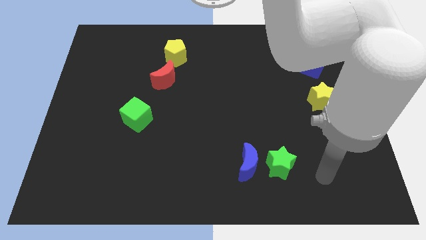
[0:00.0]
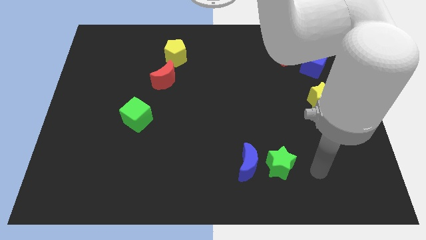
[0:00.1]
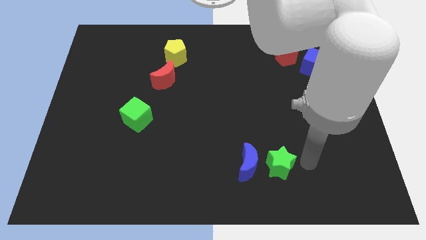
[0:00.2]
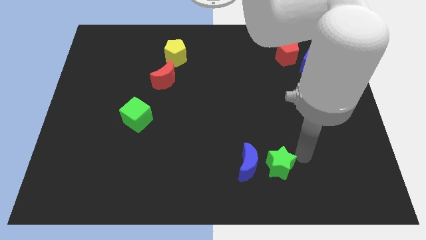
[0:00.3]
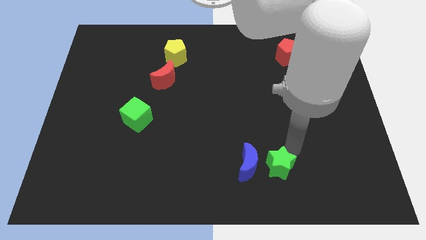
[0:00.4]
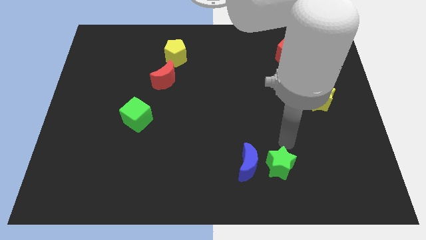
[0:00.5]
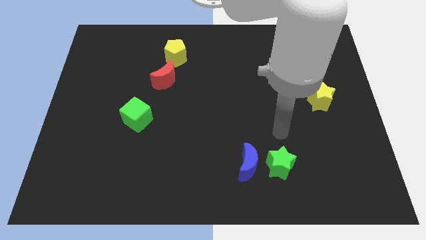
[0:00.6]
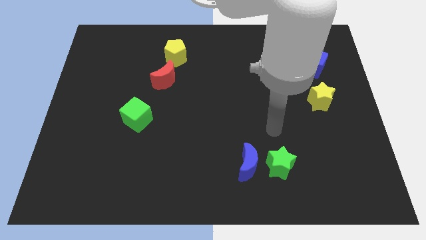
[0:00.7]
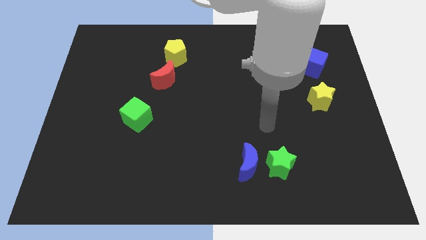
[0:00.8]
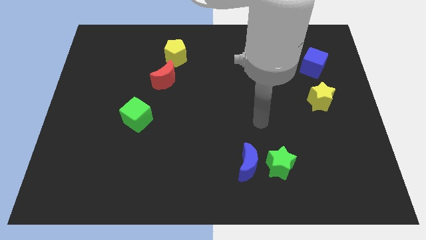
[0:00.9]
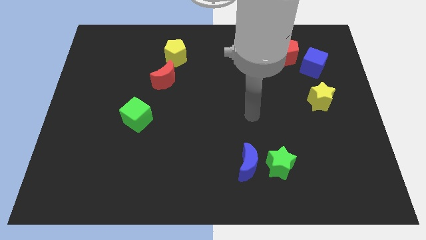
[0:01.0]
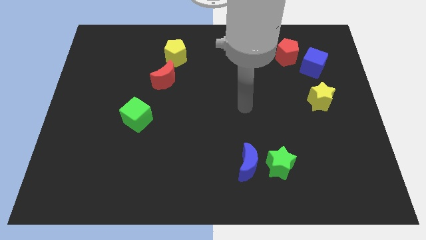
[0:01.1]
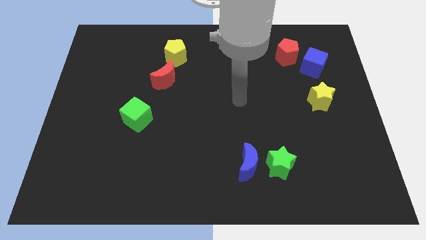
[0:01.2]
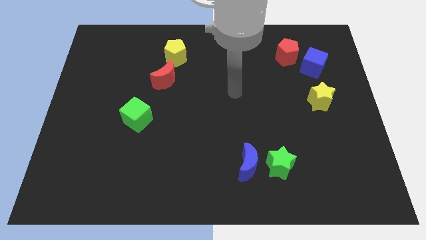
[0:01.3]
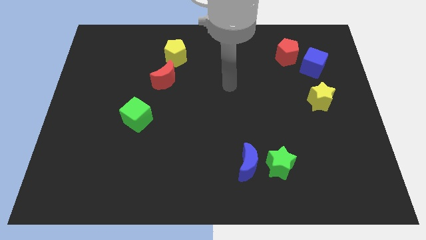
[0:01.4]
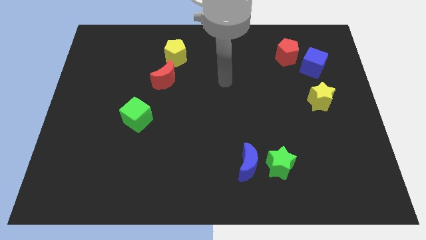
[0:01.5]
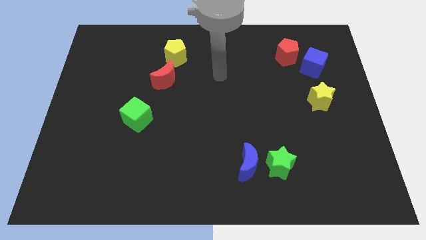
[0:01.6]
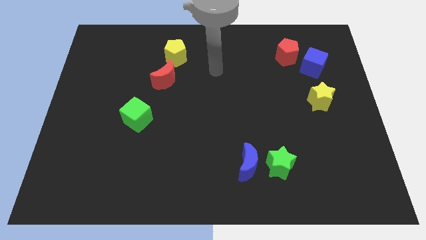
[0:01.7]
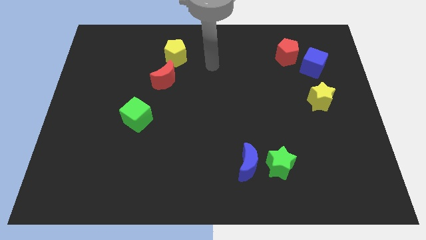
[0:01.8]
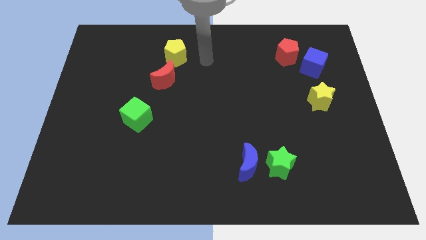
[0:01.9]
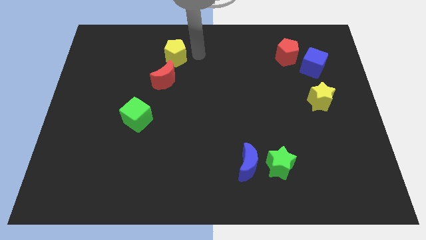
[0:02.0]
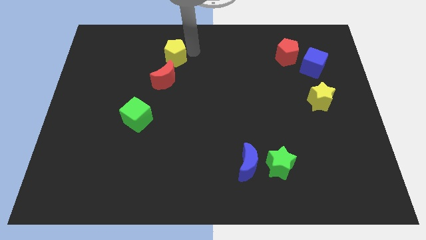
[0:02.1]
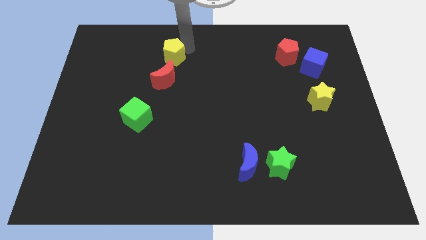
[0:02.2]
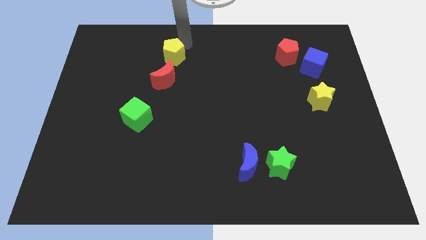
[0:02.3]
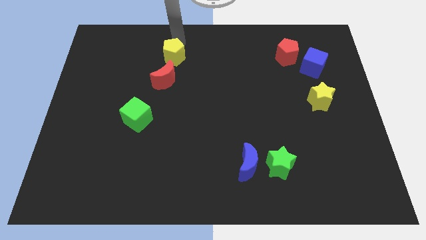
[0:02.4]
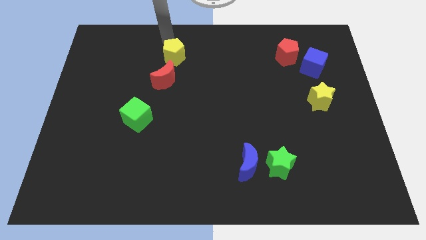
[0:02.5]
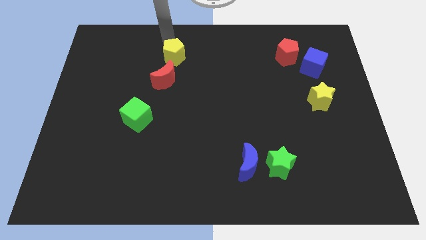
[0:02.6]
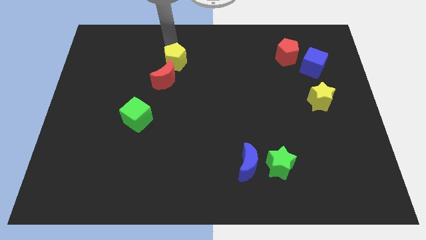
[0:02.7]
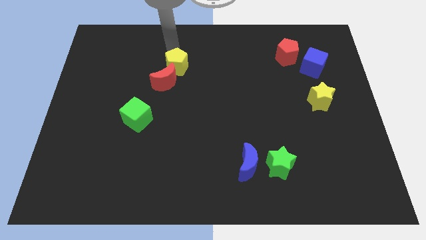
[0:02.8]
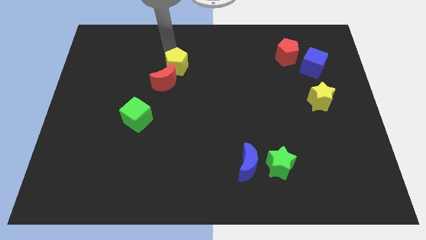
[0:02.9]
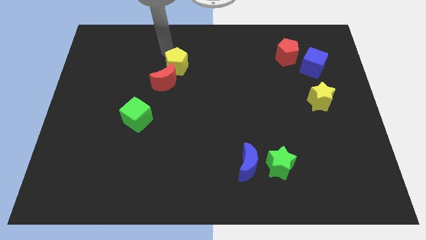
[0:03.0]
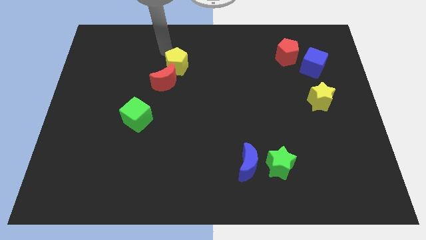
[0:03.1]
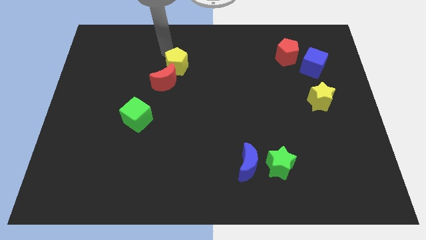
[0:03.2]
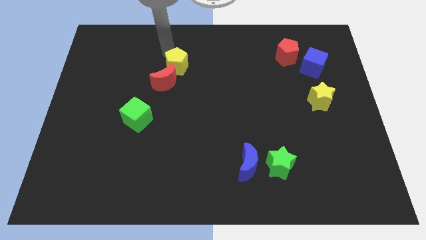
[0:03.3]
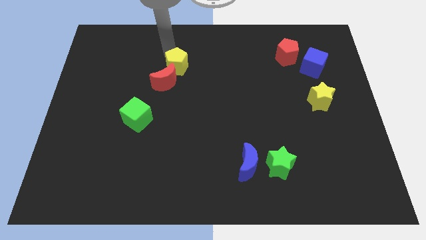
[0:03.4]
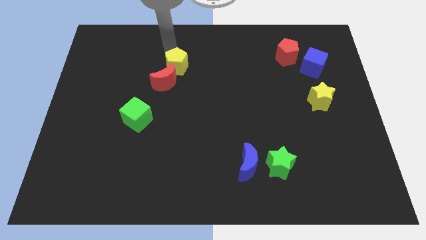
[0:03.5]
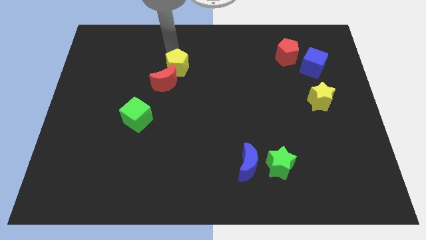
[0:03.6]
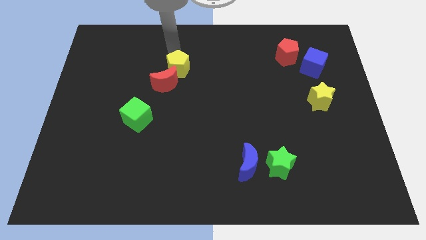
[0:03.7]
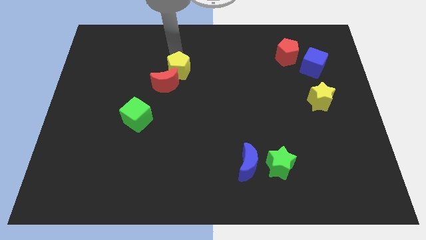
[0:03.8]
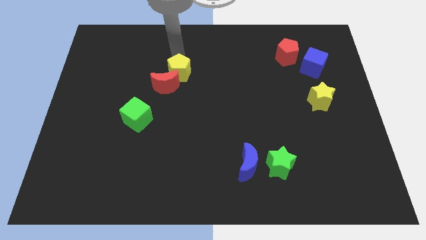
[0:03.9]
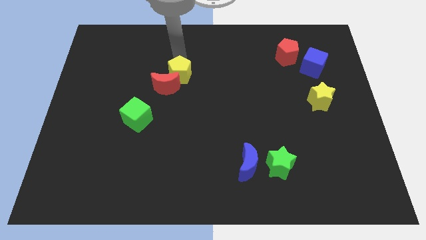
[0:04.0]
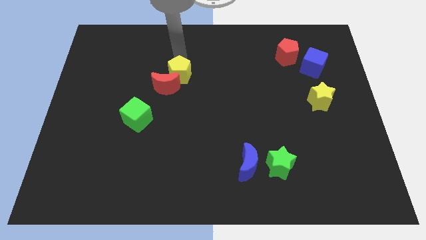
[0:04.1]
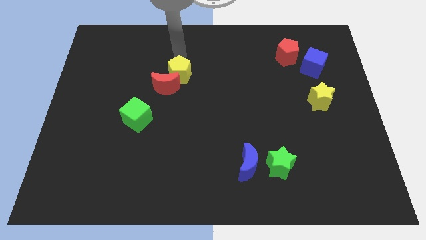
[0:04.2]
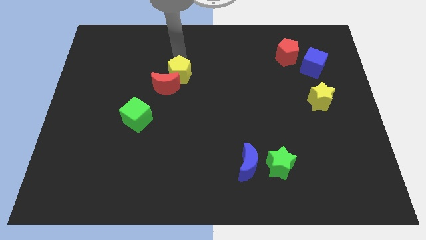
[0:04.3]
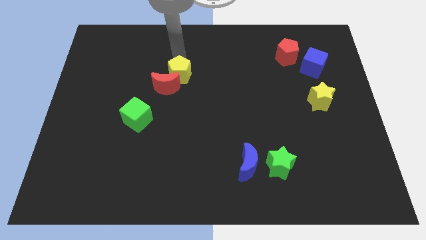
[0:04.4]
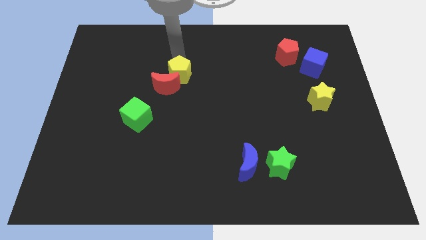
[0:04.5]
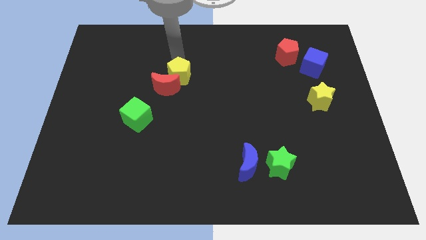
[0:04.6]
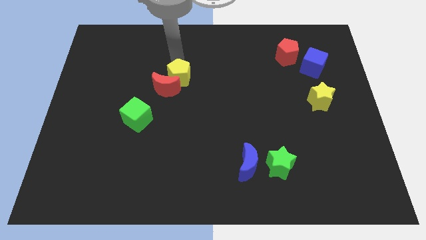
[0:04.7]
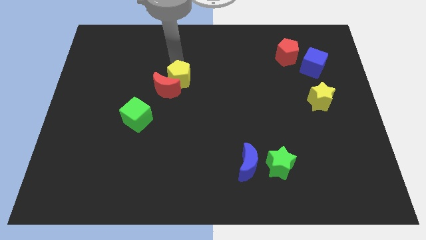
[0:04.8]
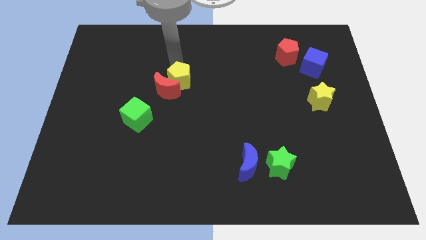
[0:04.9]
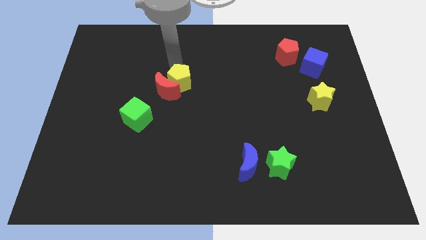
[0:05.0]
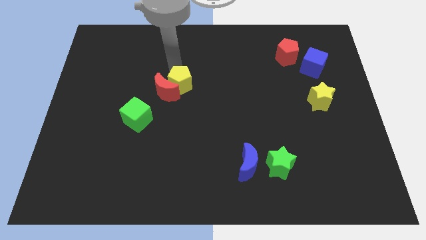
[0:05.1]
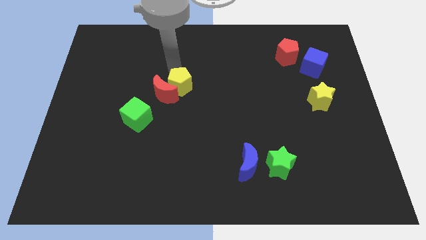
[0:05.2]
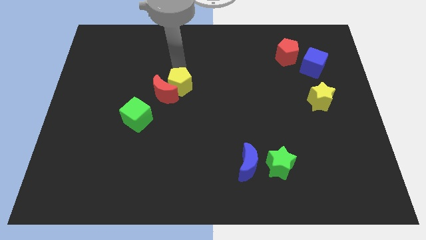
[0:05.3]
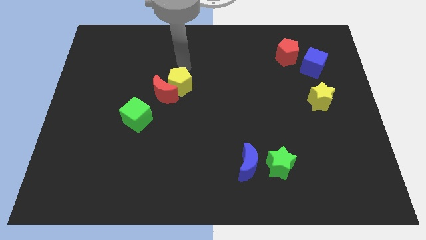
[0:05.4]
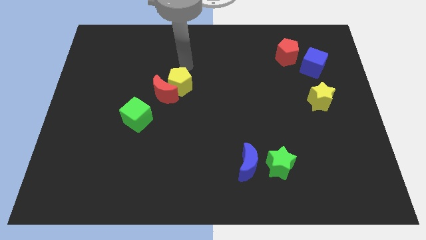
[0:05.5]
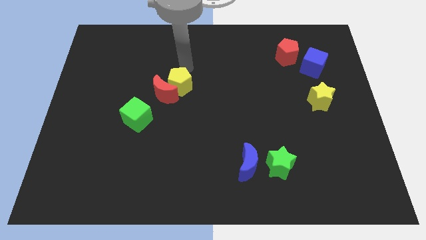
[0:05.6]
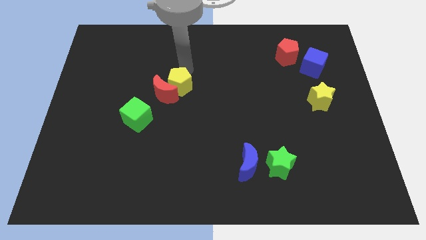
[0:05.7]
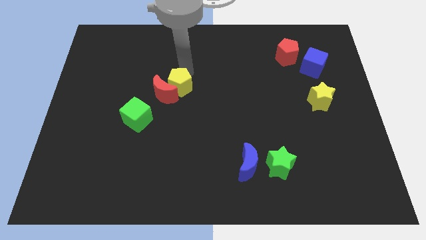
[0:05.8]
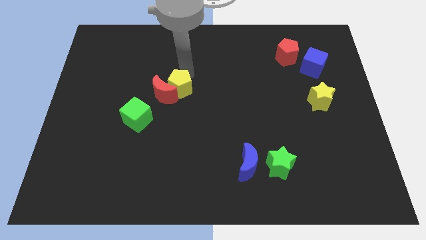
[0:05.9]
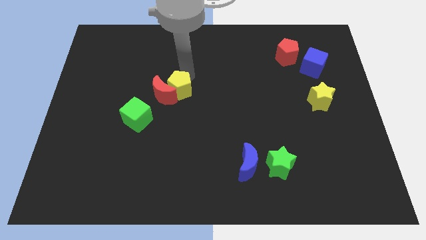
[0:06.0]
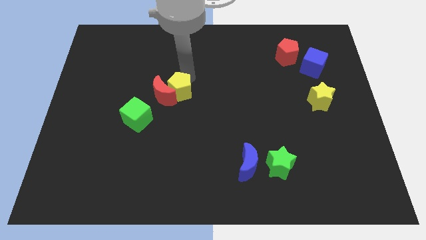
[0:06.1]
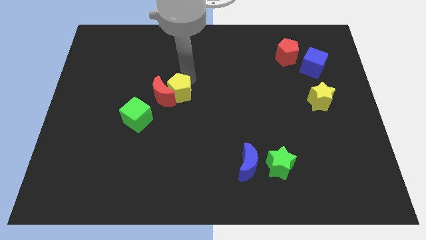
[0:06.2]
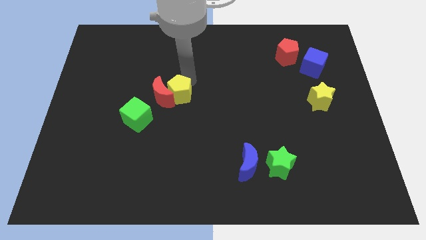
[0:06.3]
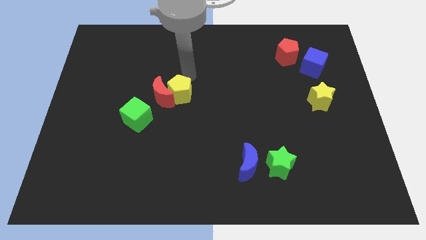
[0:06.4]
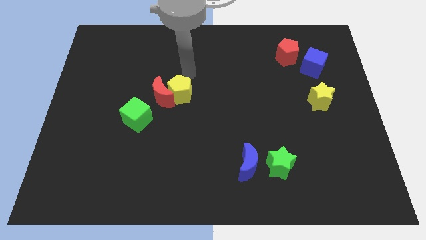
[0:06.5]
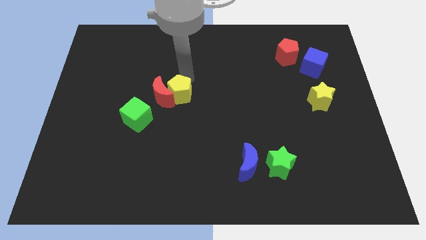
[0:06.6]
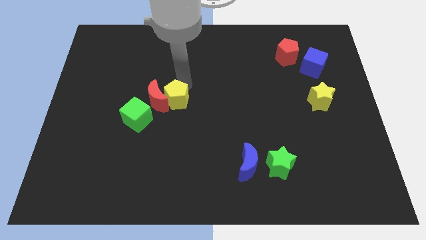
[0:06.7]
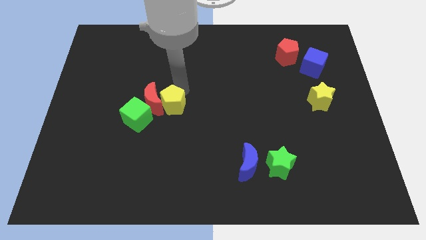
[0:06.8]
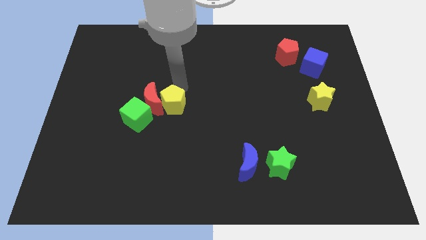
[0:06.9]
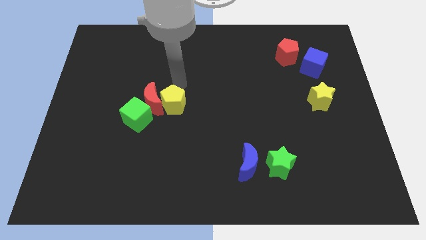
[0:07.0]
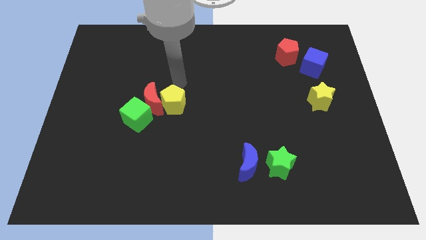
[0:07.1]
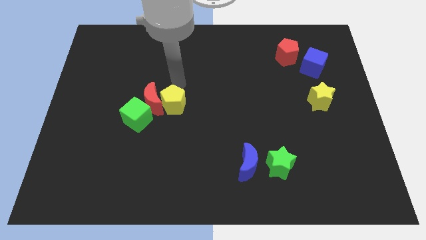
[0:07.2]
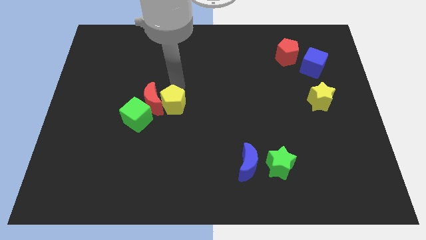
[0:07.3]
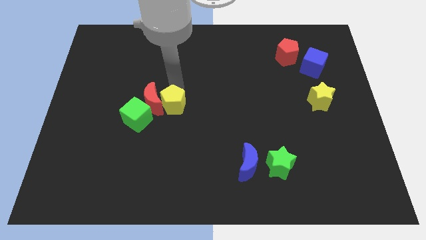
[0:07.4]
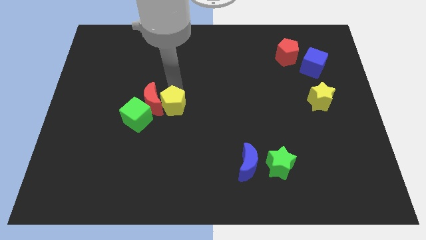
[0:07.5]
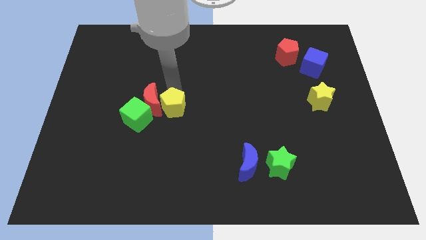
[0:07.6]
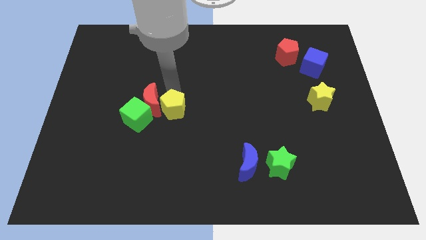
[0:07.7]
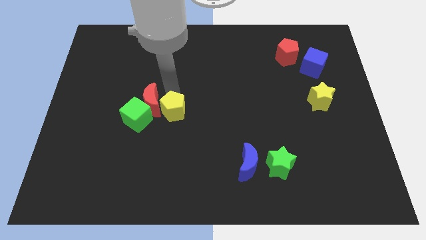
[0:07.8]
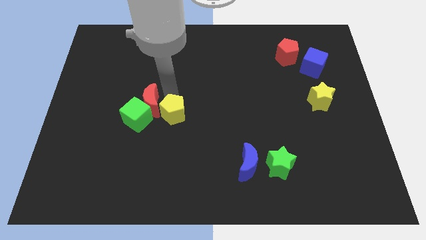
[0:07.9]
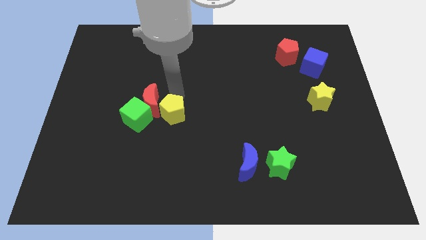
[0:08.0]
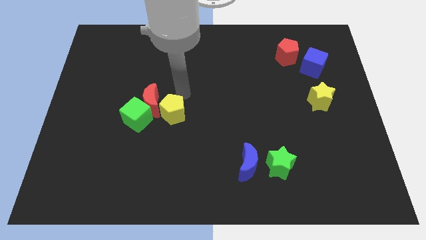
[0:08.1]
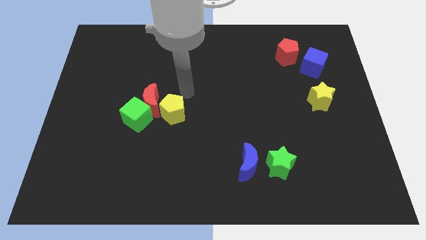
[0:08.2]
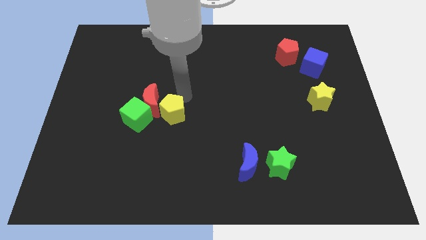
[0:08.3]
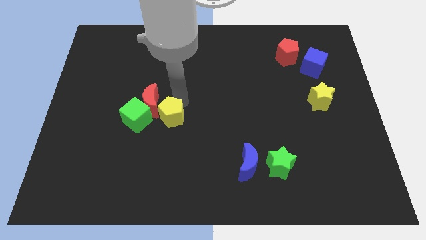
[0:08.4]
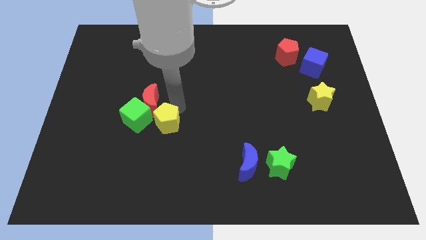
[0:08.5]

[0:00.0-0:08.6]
push the yellow pentagon diagonally down and to the right of the green cube
